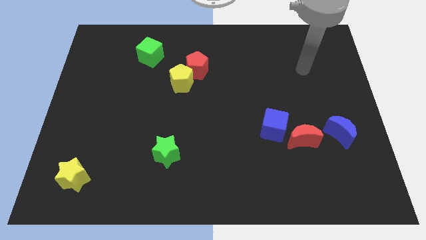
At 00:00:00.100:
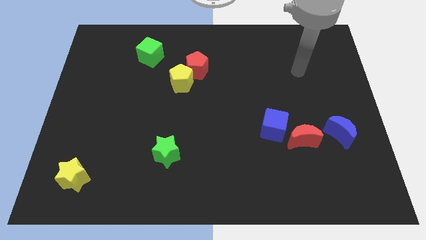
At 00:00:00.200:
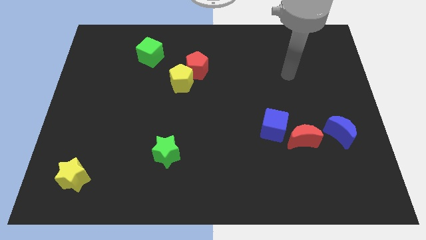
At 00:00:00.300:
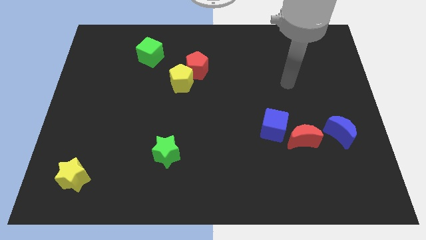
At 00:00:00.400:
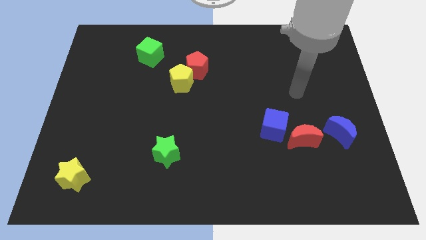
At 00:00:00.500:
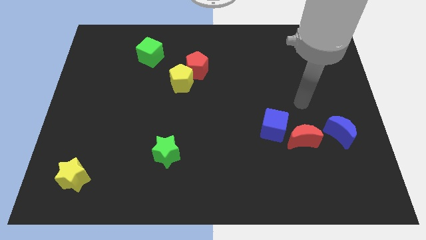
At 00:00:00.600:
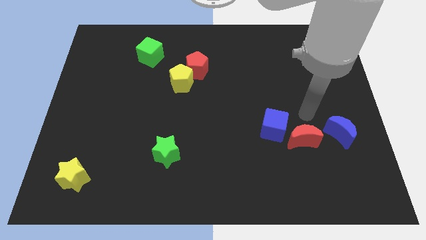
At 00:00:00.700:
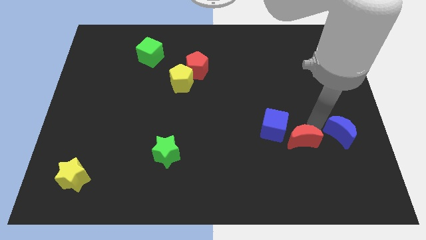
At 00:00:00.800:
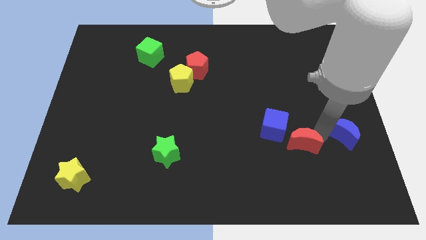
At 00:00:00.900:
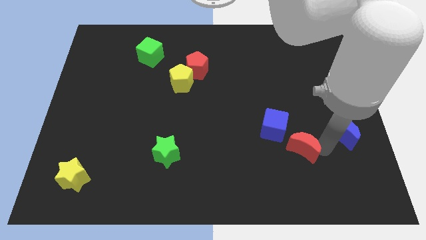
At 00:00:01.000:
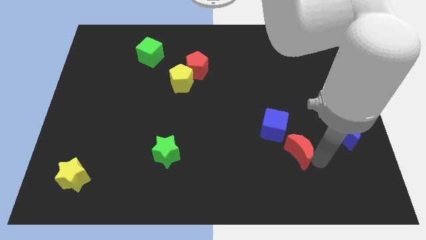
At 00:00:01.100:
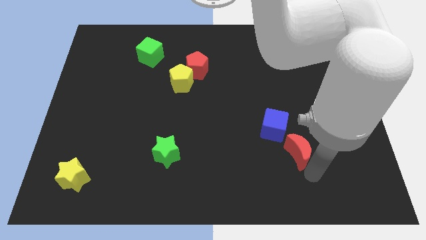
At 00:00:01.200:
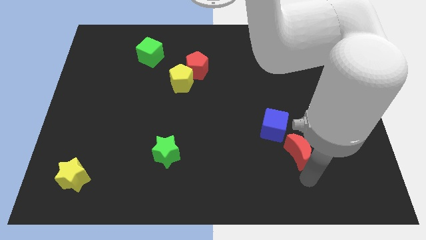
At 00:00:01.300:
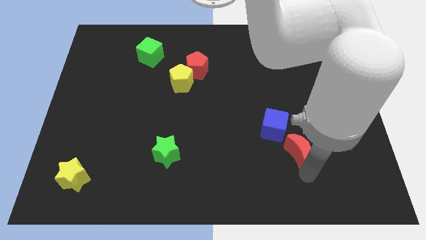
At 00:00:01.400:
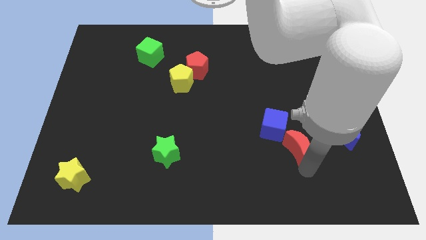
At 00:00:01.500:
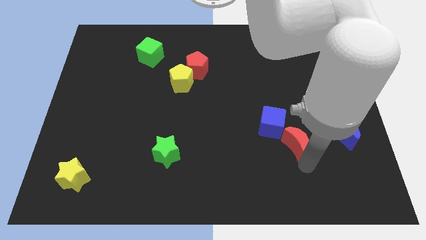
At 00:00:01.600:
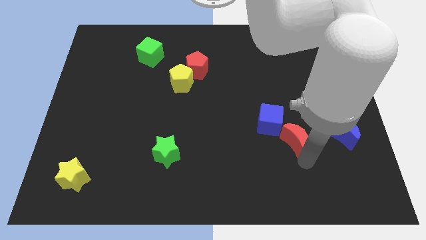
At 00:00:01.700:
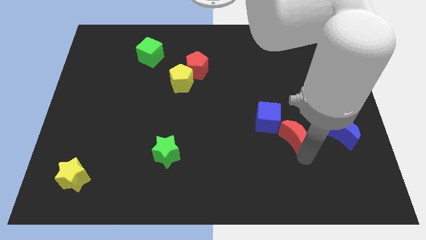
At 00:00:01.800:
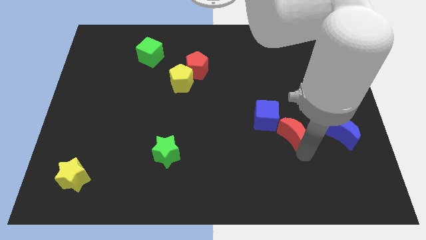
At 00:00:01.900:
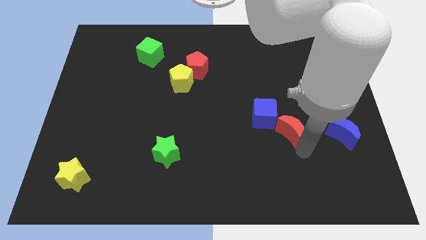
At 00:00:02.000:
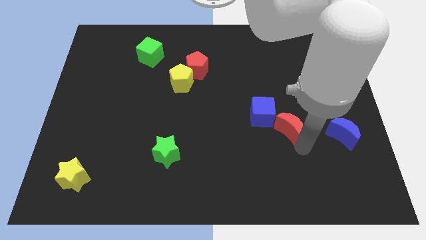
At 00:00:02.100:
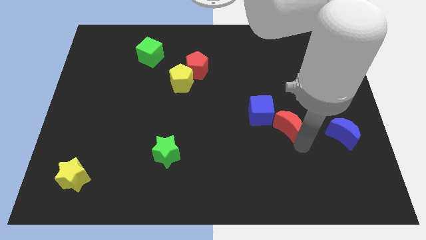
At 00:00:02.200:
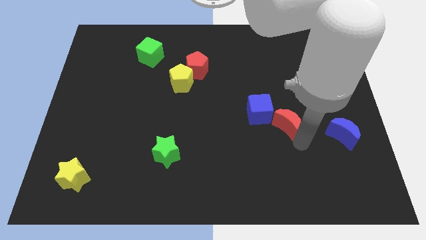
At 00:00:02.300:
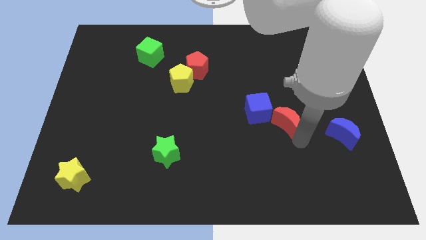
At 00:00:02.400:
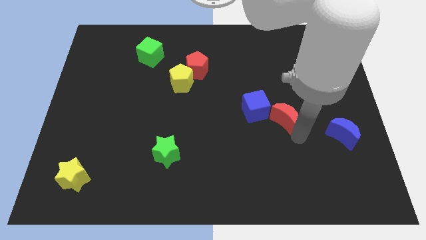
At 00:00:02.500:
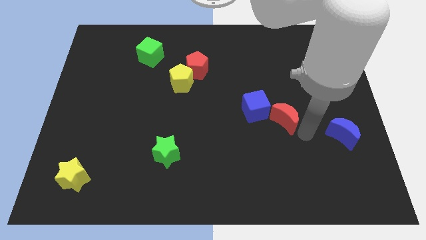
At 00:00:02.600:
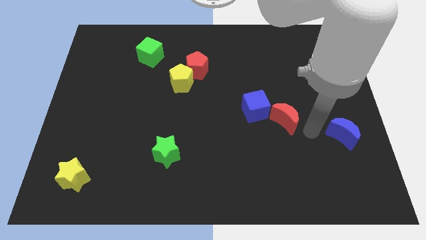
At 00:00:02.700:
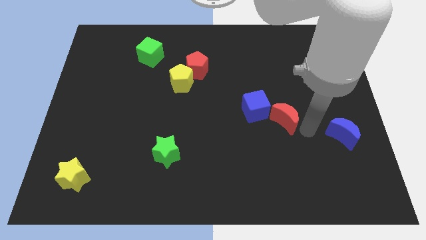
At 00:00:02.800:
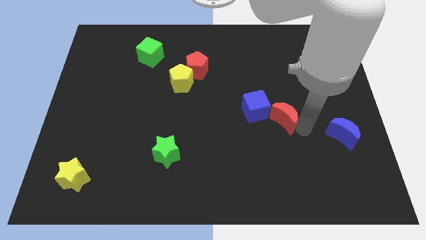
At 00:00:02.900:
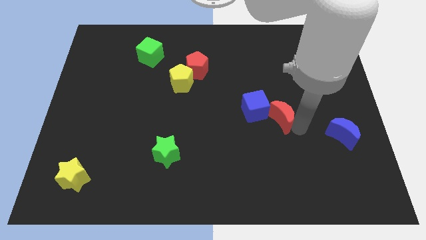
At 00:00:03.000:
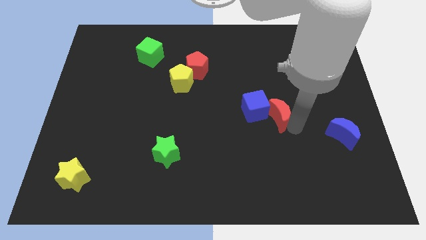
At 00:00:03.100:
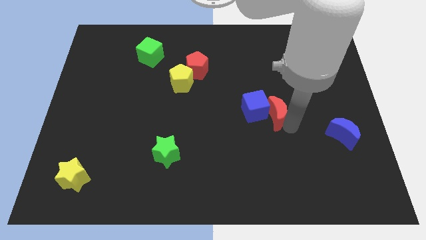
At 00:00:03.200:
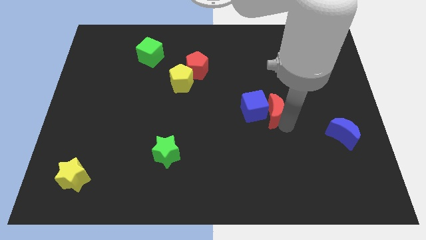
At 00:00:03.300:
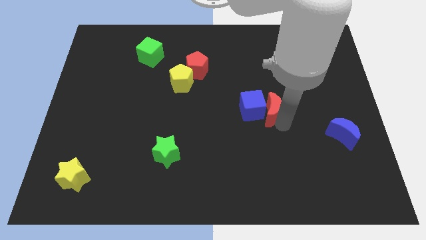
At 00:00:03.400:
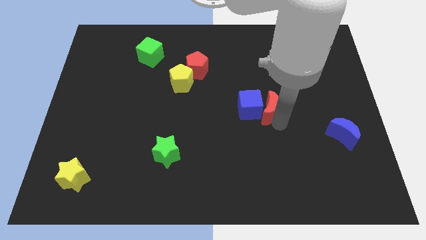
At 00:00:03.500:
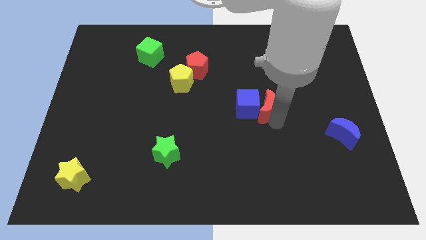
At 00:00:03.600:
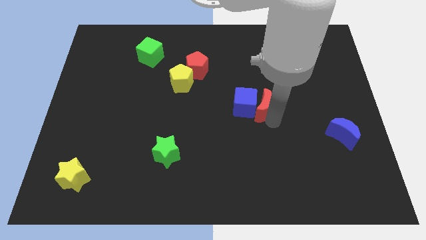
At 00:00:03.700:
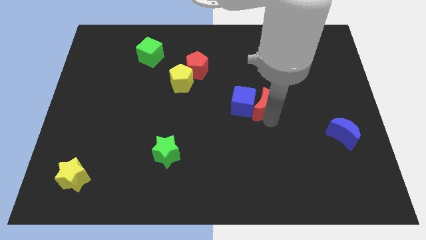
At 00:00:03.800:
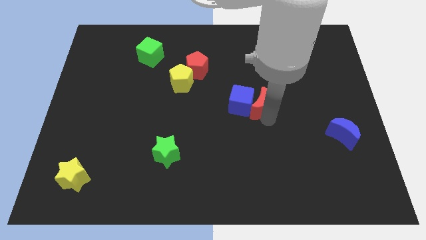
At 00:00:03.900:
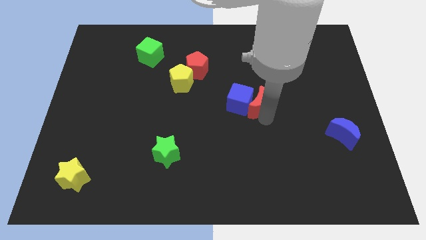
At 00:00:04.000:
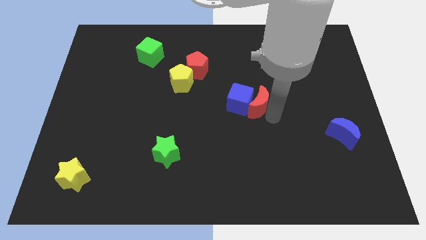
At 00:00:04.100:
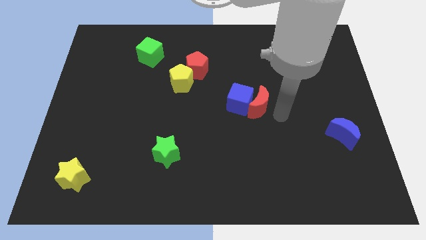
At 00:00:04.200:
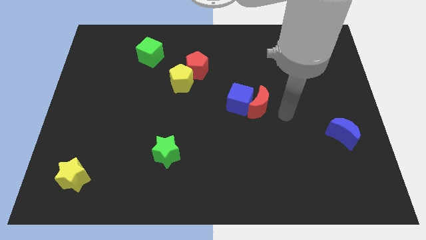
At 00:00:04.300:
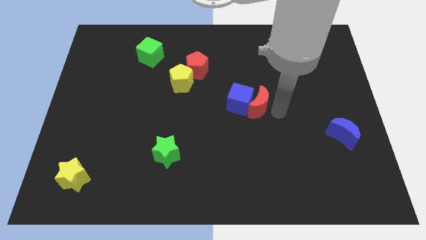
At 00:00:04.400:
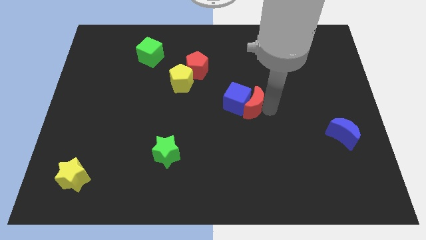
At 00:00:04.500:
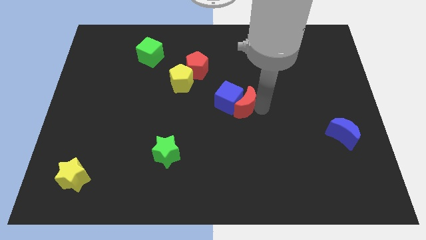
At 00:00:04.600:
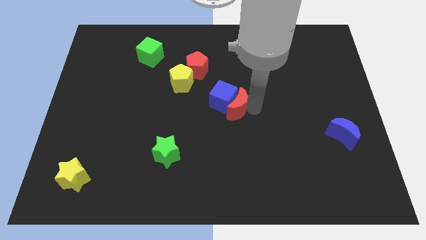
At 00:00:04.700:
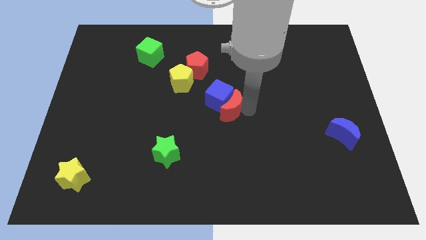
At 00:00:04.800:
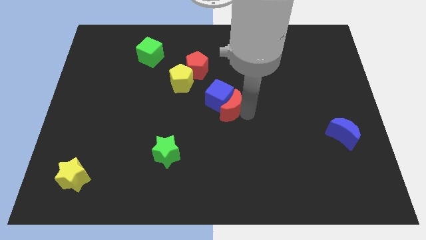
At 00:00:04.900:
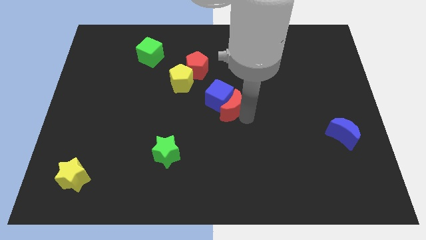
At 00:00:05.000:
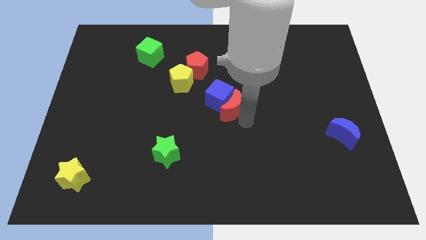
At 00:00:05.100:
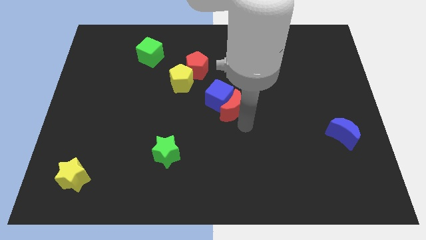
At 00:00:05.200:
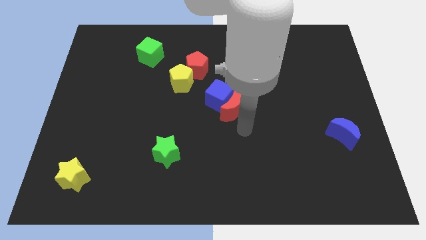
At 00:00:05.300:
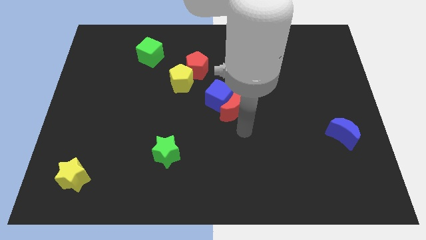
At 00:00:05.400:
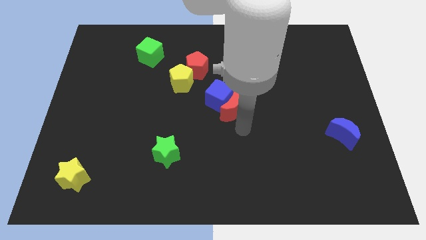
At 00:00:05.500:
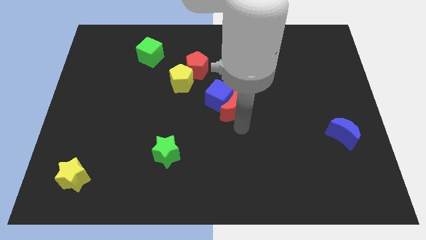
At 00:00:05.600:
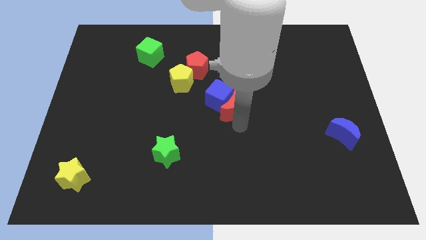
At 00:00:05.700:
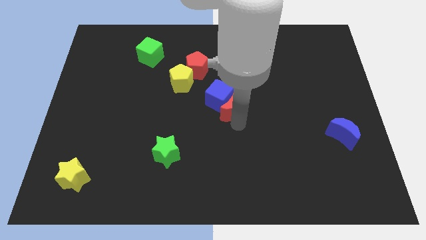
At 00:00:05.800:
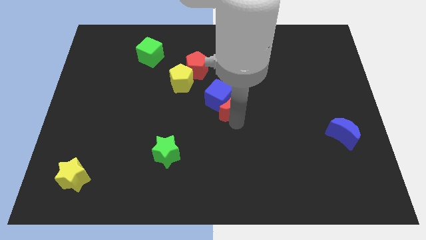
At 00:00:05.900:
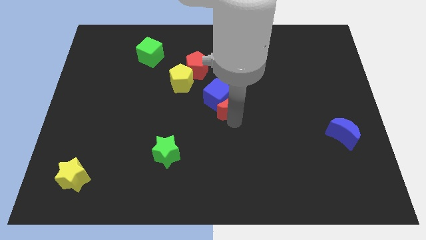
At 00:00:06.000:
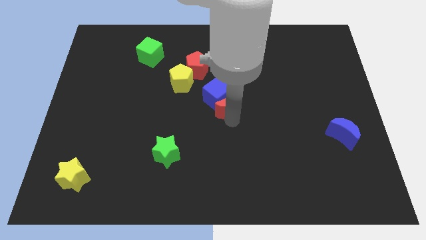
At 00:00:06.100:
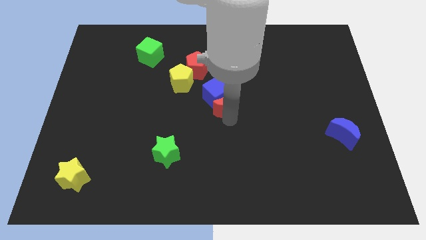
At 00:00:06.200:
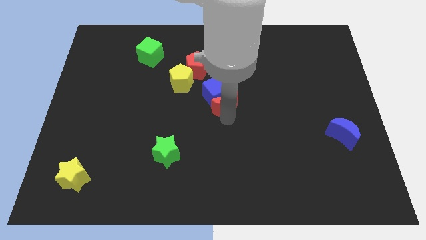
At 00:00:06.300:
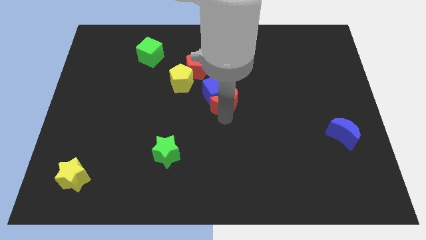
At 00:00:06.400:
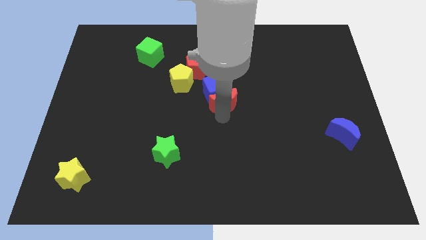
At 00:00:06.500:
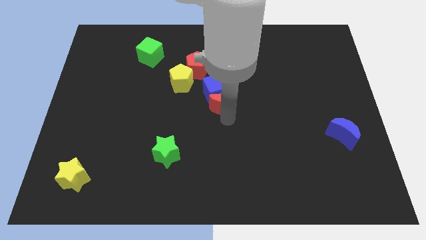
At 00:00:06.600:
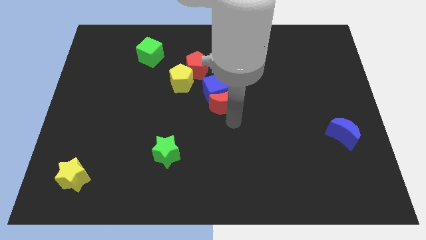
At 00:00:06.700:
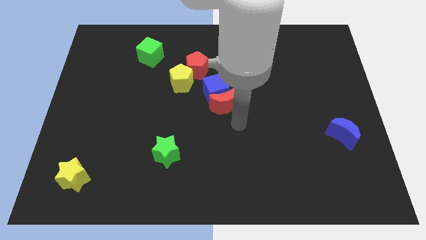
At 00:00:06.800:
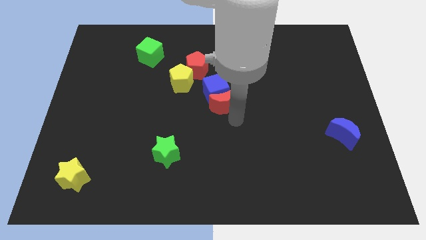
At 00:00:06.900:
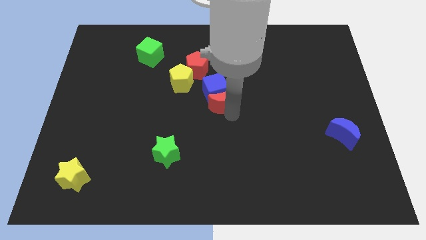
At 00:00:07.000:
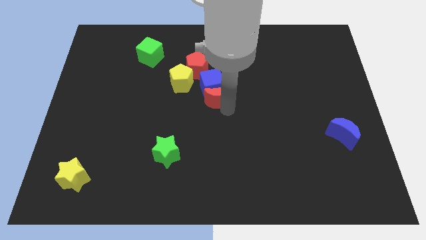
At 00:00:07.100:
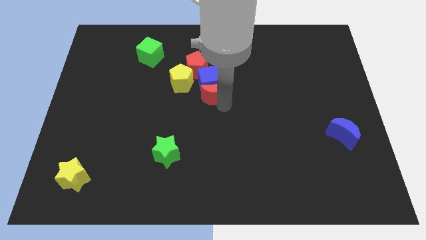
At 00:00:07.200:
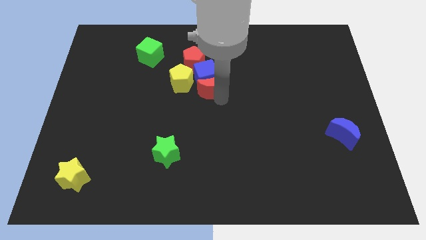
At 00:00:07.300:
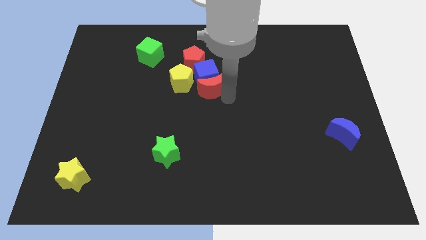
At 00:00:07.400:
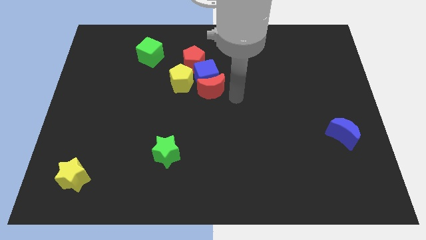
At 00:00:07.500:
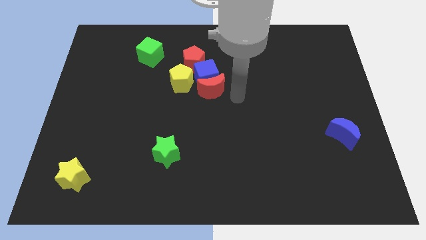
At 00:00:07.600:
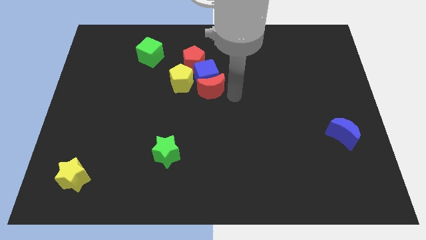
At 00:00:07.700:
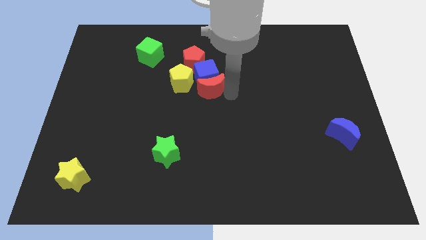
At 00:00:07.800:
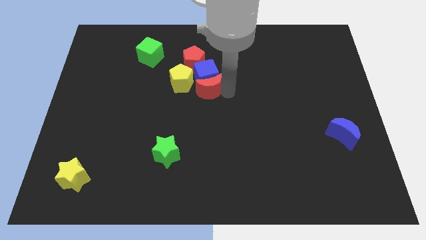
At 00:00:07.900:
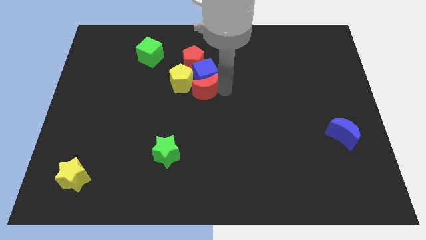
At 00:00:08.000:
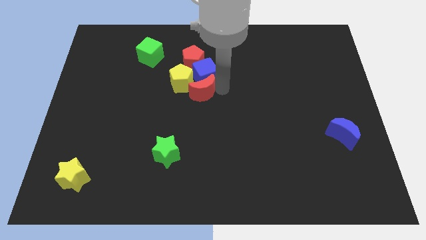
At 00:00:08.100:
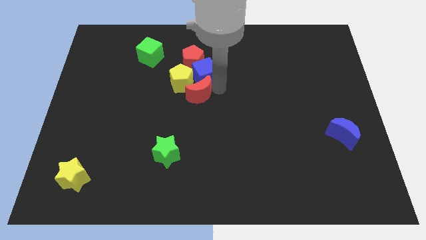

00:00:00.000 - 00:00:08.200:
move the red moon next to the yellow pentagon
